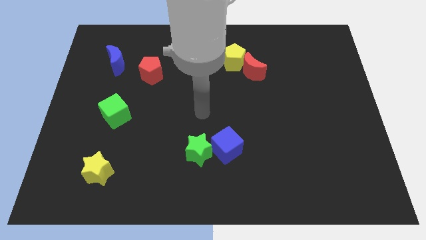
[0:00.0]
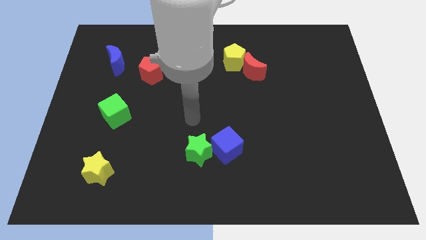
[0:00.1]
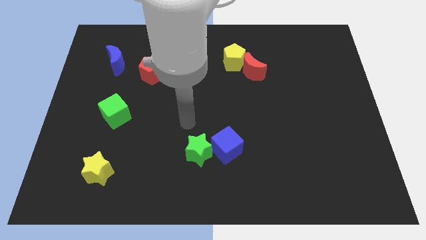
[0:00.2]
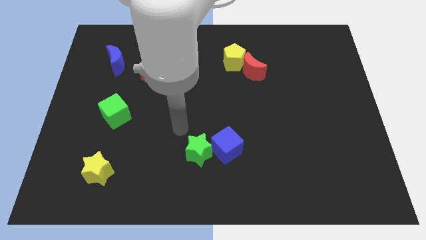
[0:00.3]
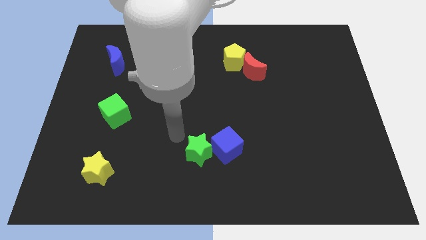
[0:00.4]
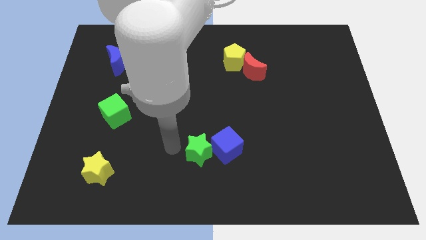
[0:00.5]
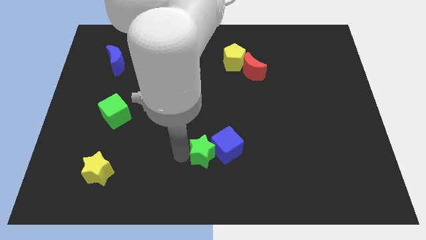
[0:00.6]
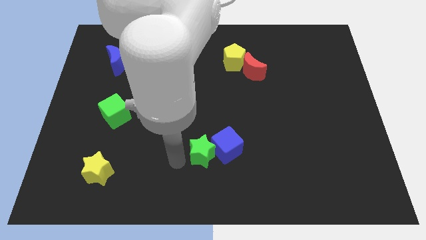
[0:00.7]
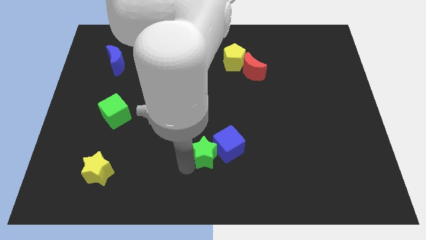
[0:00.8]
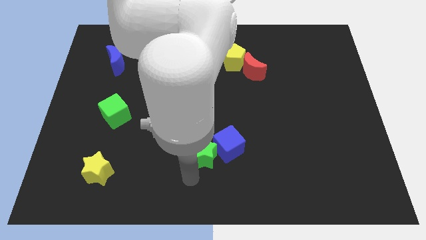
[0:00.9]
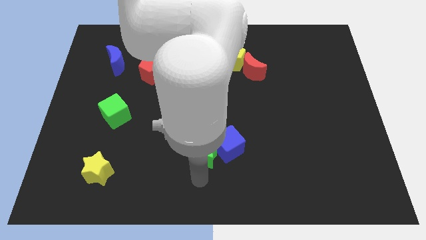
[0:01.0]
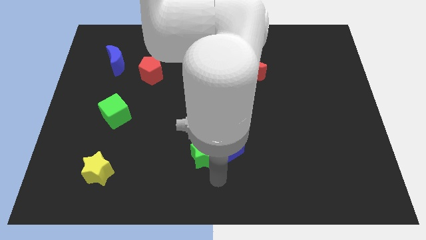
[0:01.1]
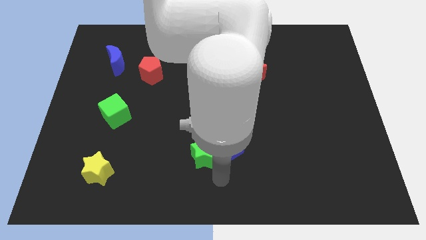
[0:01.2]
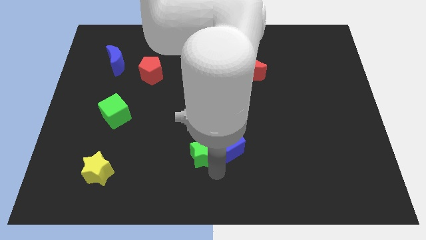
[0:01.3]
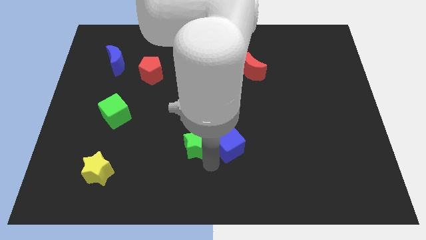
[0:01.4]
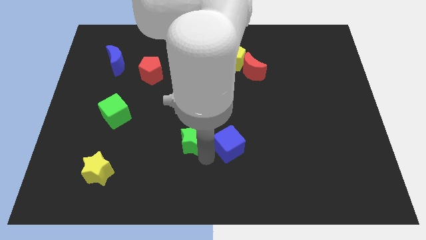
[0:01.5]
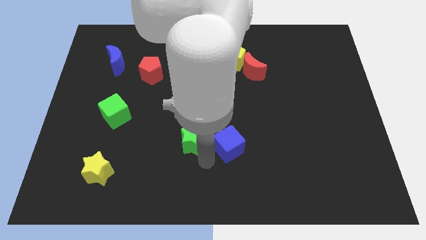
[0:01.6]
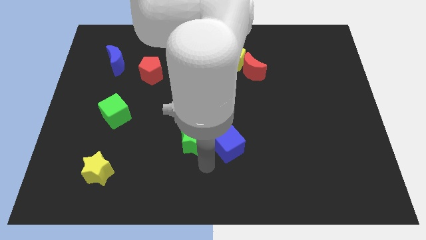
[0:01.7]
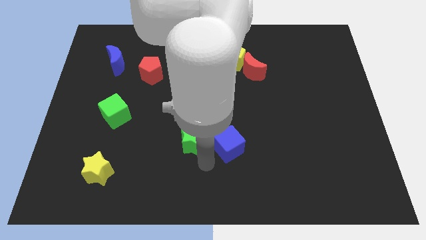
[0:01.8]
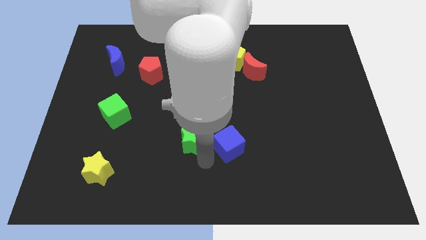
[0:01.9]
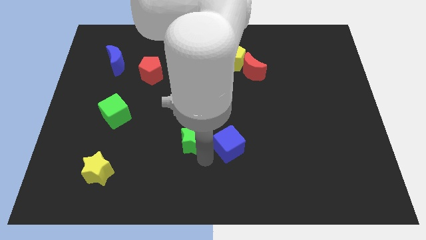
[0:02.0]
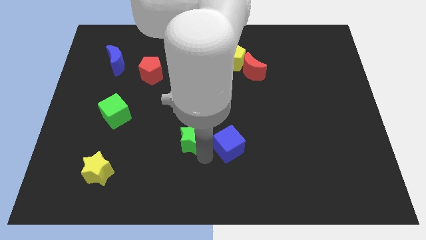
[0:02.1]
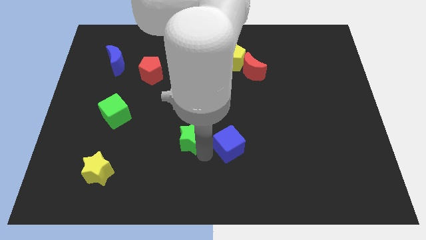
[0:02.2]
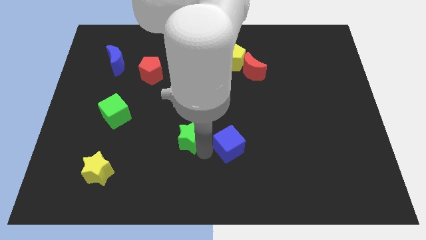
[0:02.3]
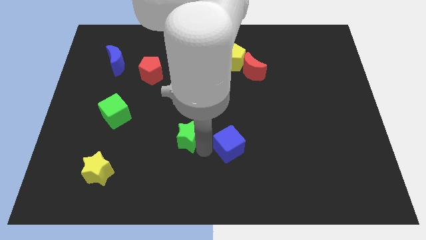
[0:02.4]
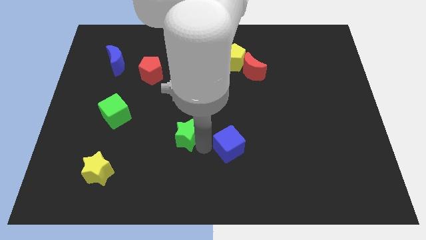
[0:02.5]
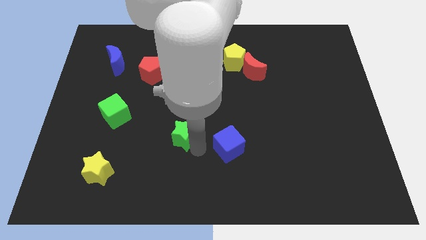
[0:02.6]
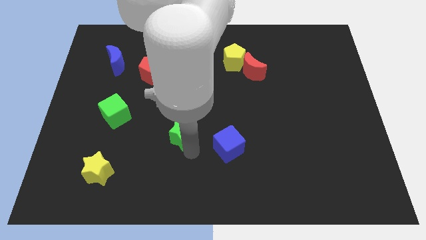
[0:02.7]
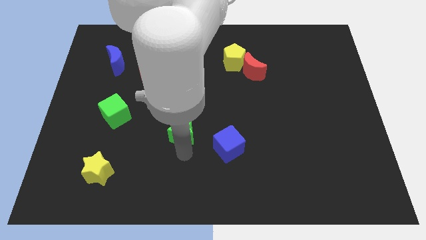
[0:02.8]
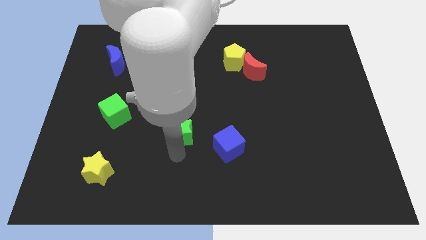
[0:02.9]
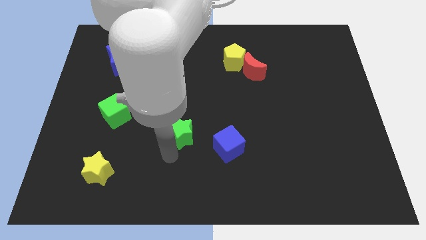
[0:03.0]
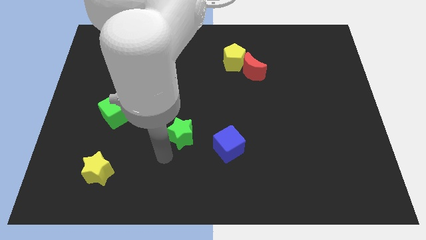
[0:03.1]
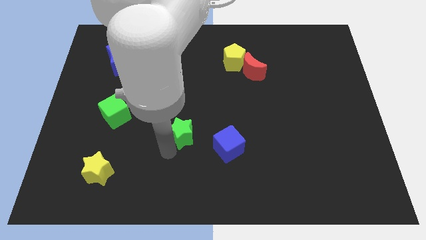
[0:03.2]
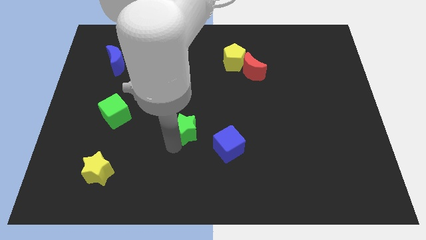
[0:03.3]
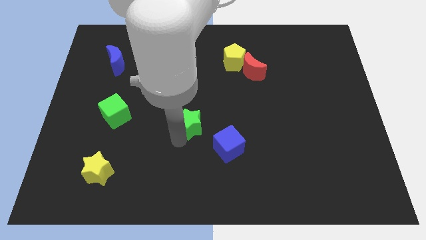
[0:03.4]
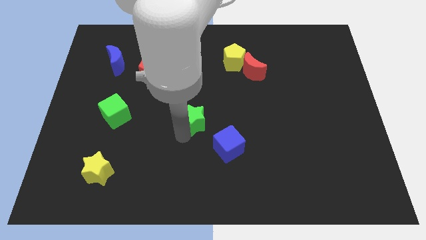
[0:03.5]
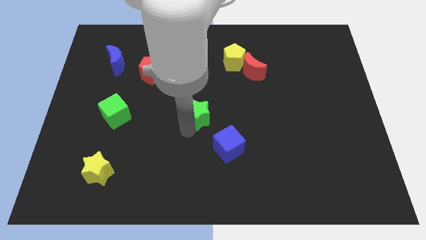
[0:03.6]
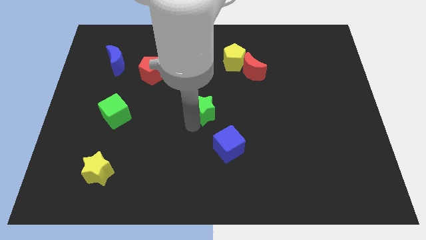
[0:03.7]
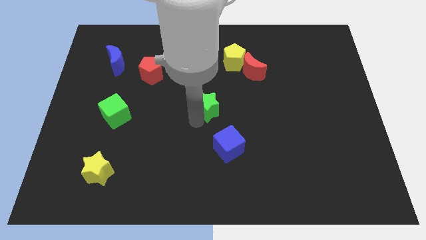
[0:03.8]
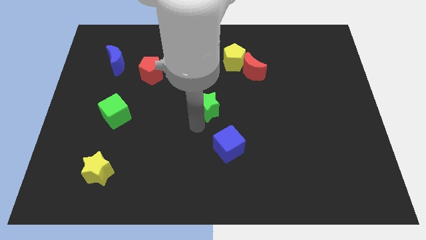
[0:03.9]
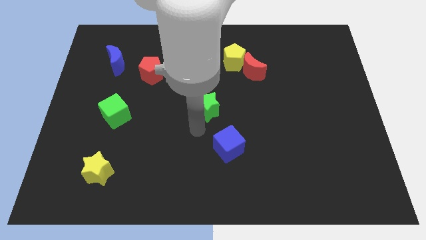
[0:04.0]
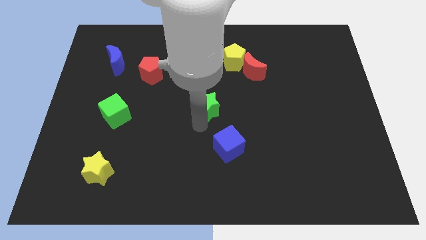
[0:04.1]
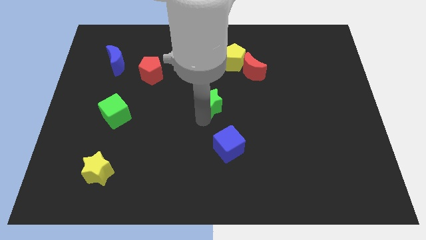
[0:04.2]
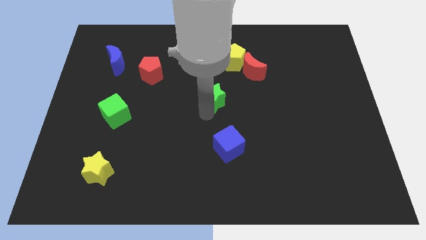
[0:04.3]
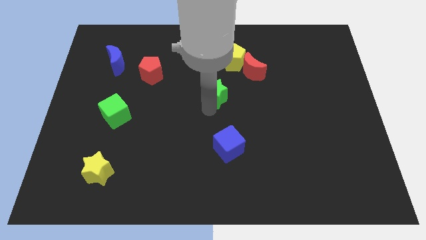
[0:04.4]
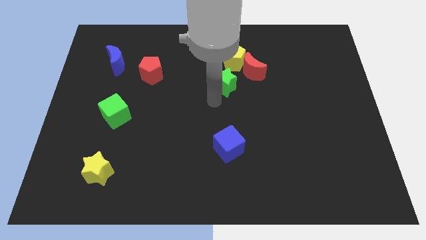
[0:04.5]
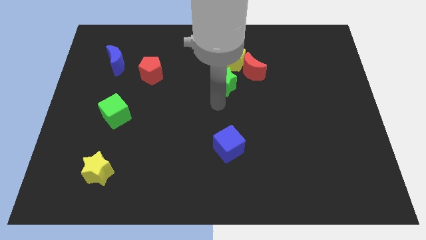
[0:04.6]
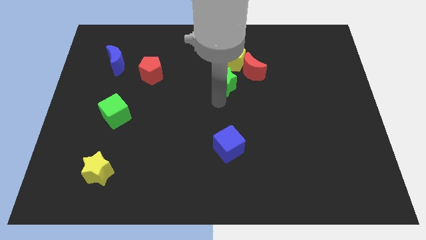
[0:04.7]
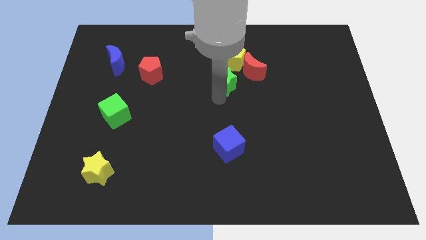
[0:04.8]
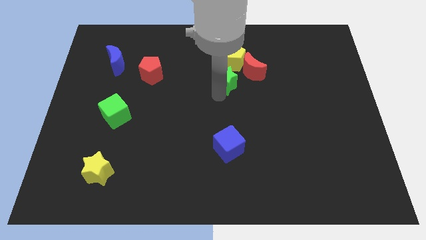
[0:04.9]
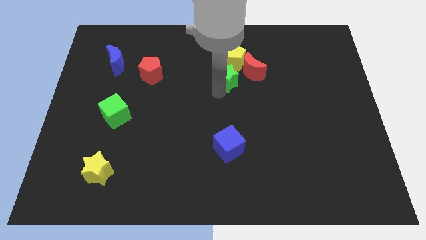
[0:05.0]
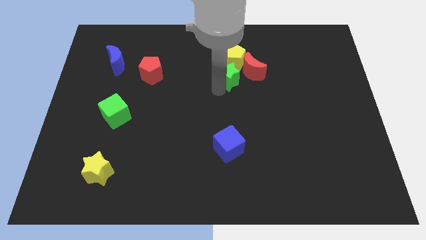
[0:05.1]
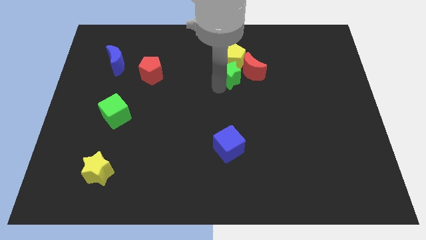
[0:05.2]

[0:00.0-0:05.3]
put the green star towards the yellow pentagon

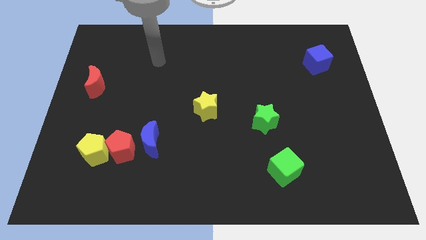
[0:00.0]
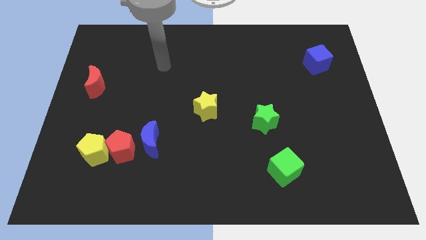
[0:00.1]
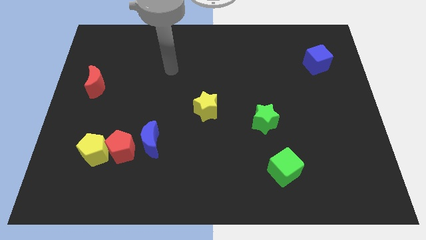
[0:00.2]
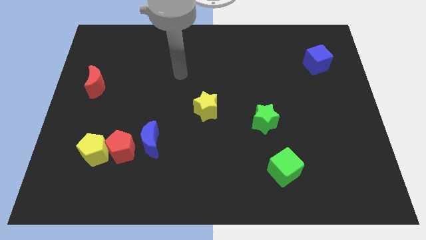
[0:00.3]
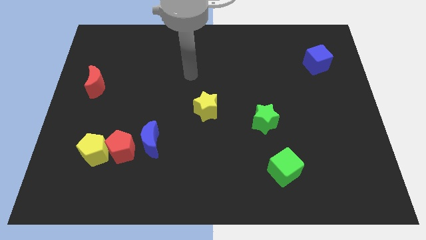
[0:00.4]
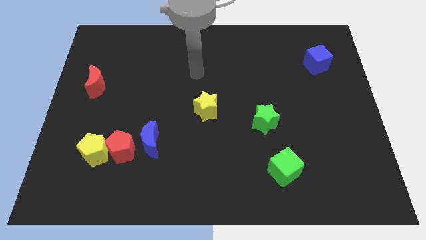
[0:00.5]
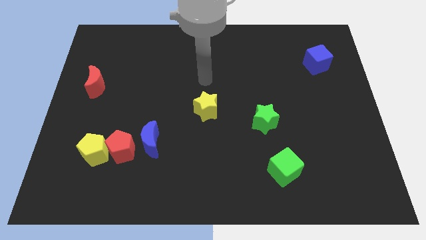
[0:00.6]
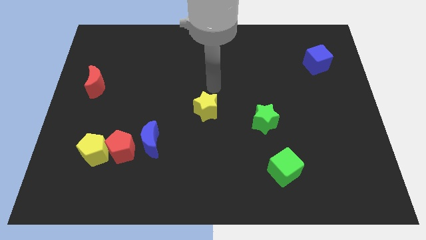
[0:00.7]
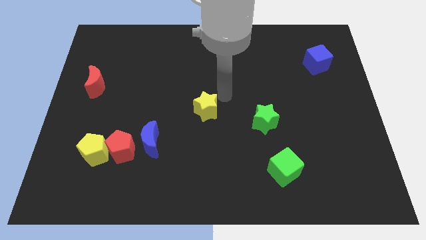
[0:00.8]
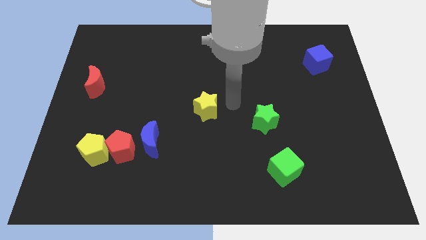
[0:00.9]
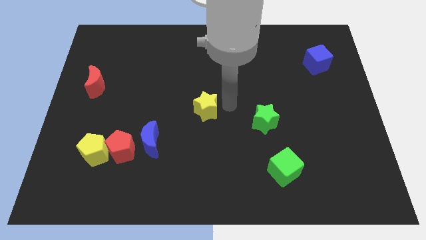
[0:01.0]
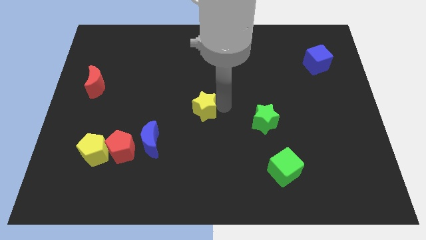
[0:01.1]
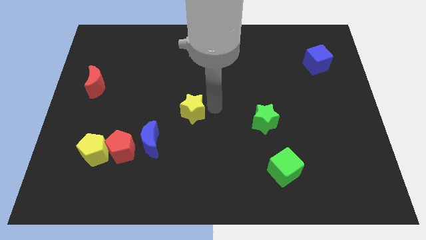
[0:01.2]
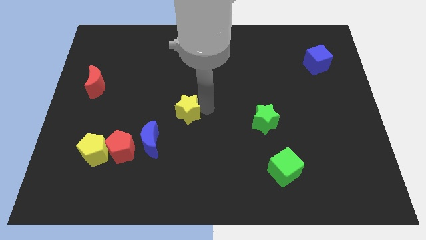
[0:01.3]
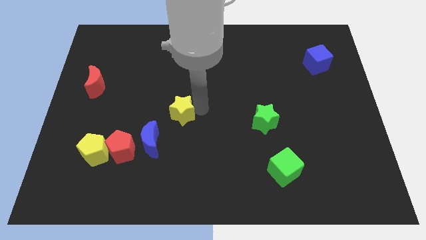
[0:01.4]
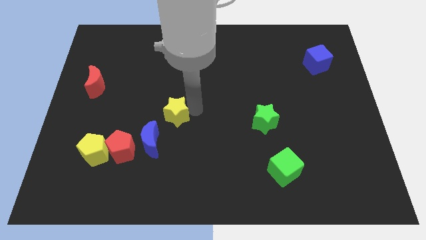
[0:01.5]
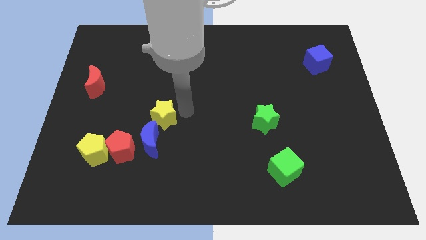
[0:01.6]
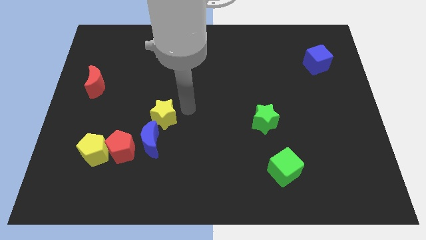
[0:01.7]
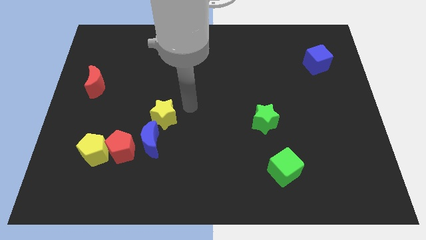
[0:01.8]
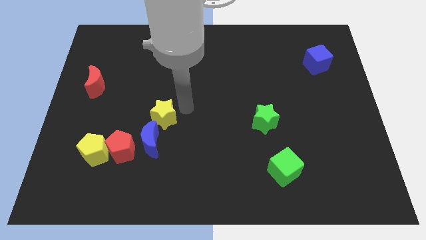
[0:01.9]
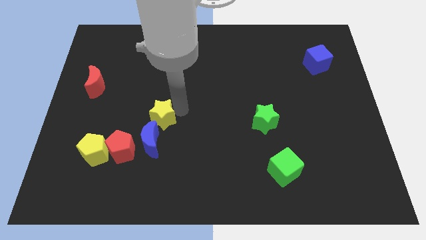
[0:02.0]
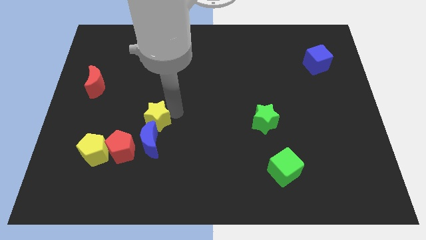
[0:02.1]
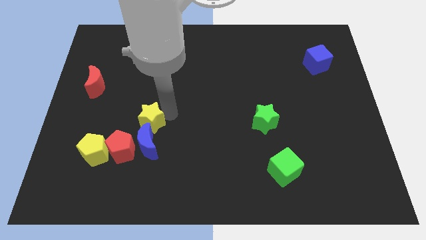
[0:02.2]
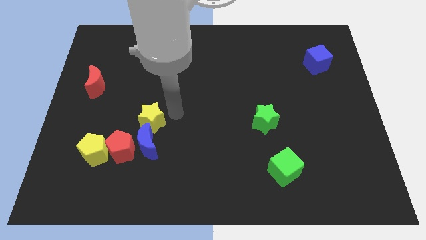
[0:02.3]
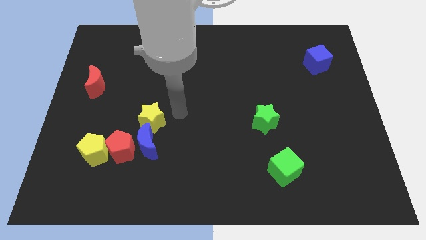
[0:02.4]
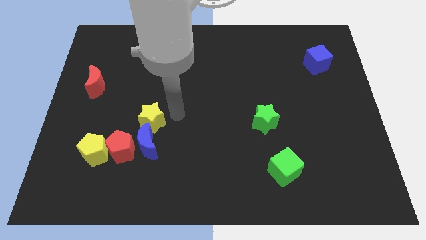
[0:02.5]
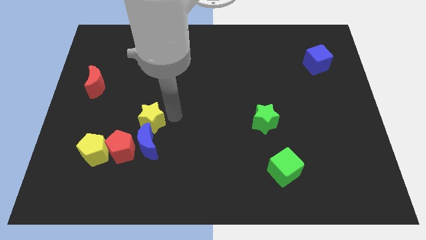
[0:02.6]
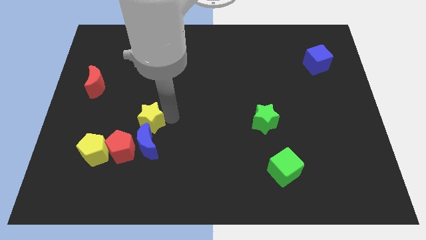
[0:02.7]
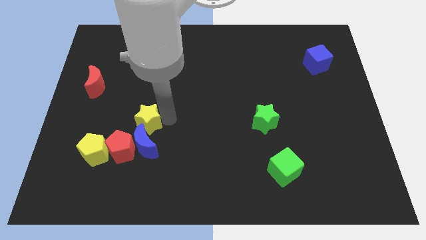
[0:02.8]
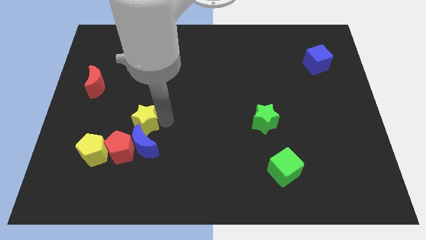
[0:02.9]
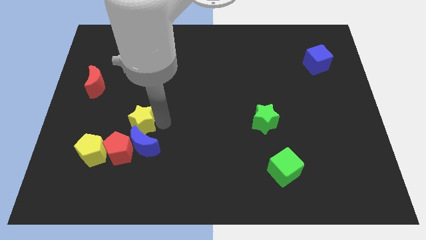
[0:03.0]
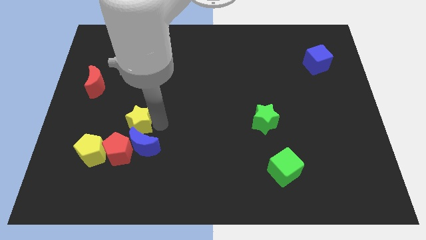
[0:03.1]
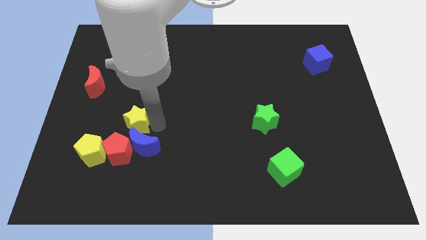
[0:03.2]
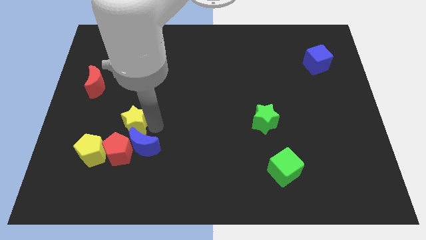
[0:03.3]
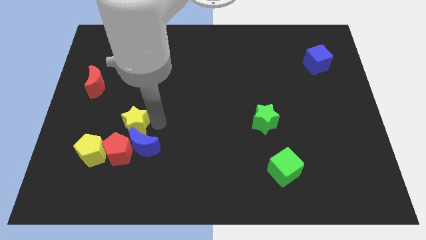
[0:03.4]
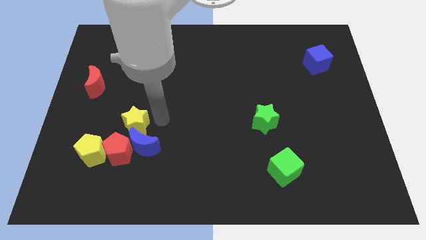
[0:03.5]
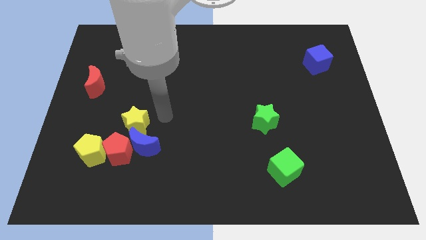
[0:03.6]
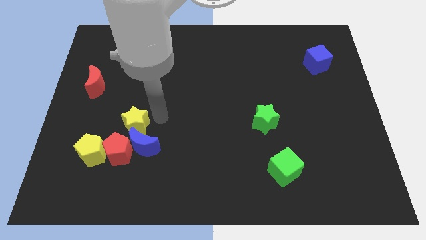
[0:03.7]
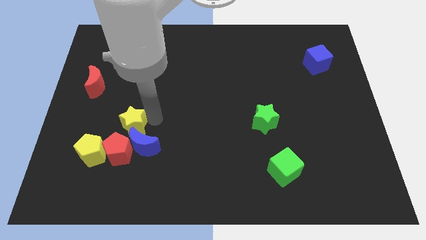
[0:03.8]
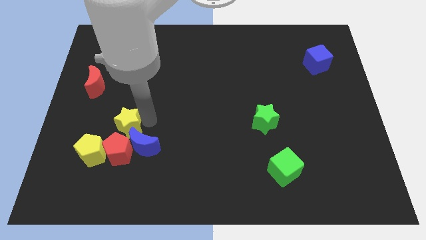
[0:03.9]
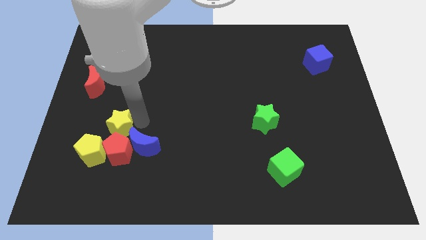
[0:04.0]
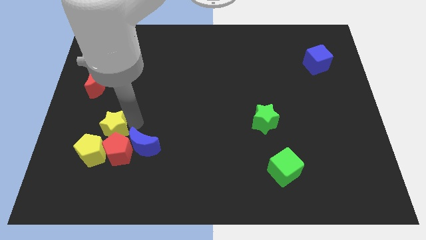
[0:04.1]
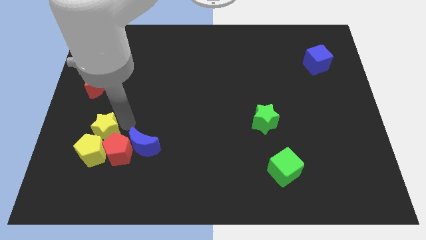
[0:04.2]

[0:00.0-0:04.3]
put the yellow star close to the yellow pentagon
